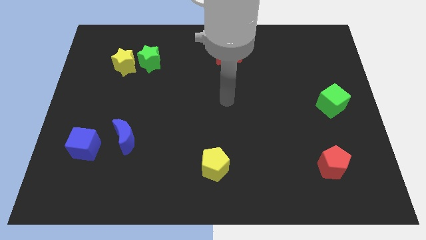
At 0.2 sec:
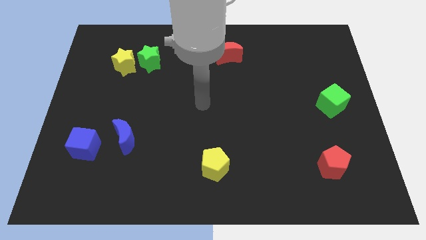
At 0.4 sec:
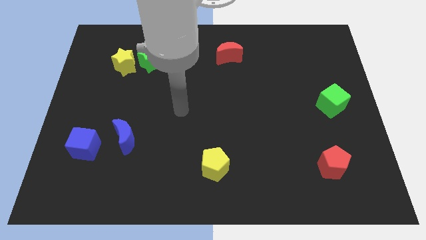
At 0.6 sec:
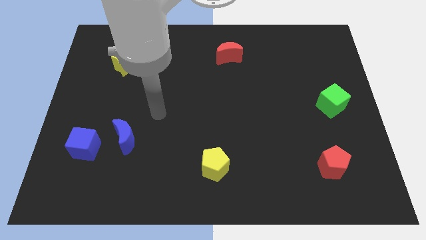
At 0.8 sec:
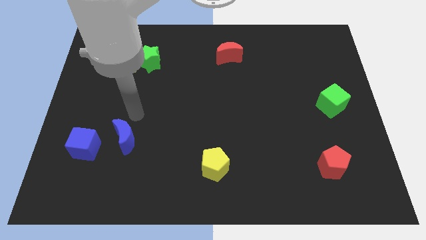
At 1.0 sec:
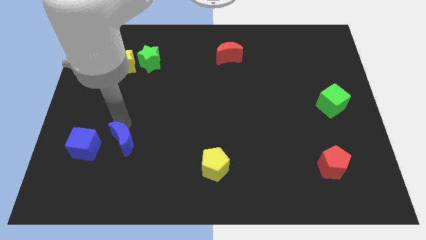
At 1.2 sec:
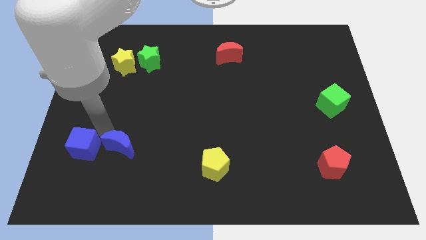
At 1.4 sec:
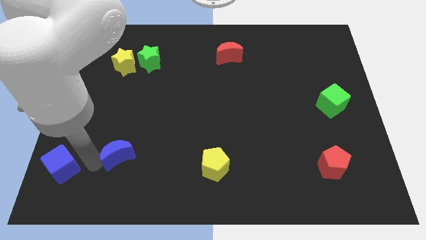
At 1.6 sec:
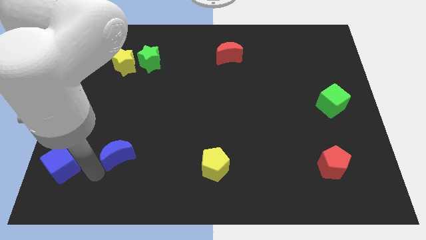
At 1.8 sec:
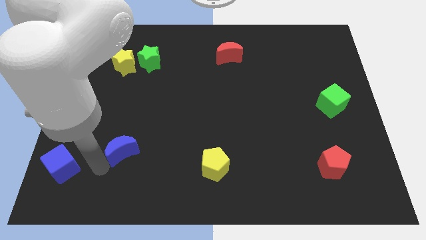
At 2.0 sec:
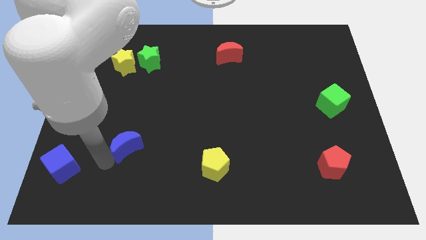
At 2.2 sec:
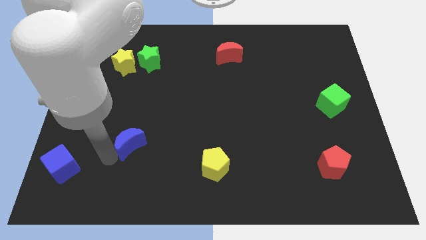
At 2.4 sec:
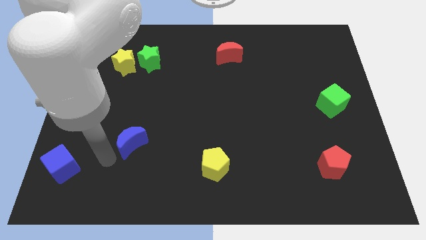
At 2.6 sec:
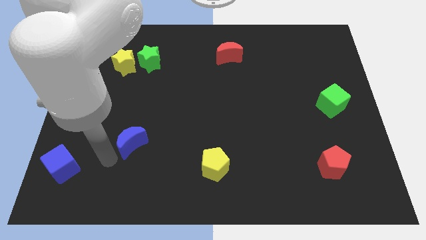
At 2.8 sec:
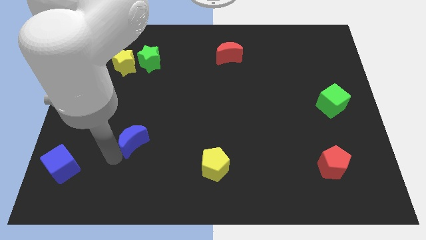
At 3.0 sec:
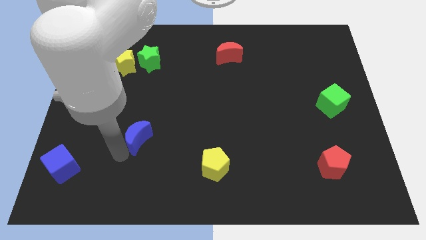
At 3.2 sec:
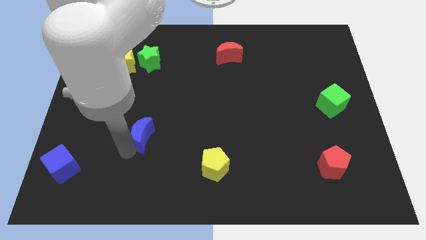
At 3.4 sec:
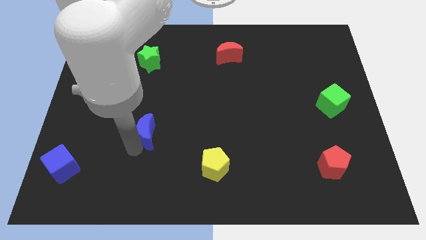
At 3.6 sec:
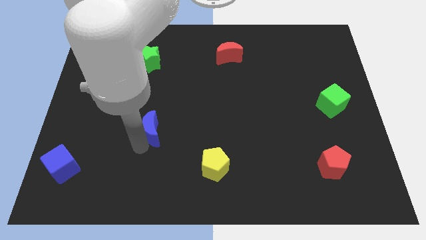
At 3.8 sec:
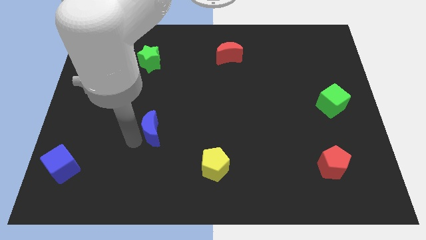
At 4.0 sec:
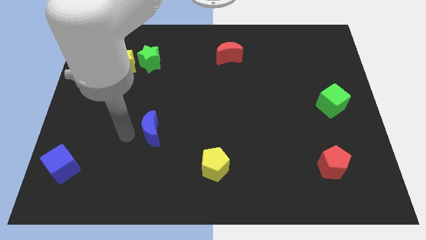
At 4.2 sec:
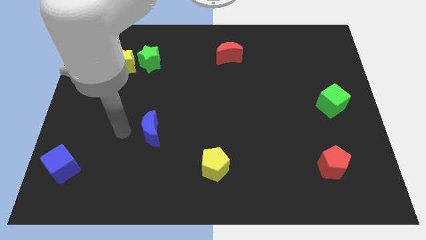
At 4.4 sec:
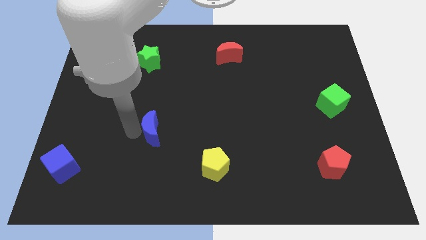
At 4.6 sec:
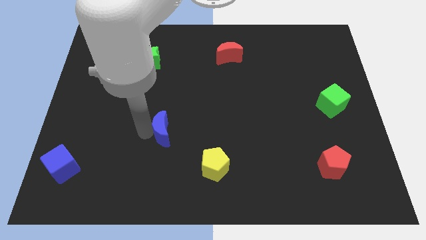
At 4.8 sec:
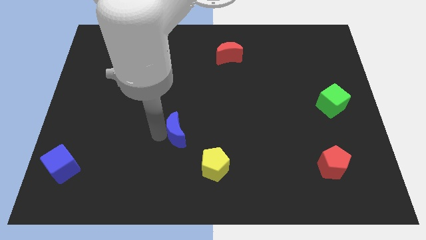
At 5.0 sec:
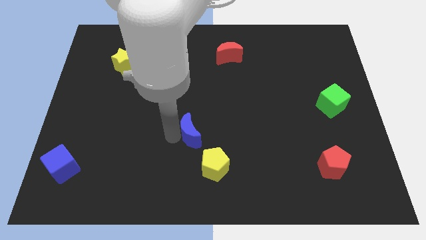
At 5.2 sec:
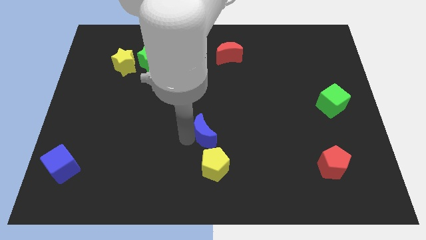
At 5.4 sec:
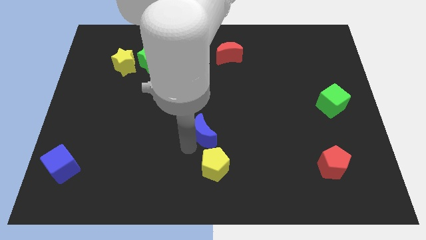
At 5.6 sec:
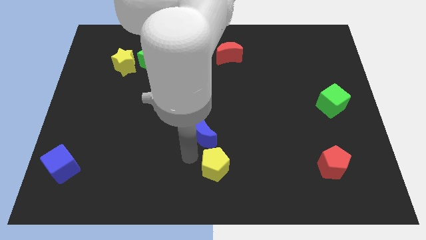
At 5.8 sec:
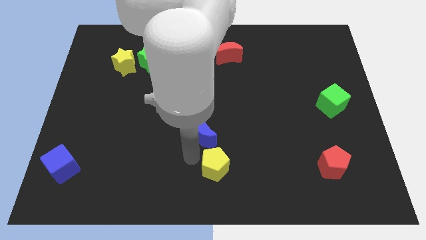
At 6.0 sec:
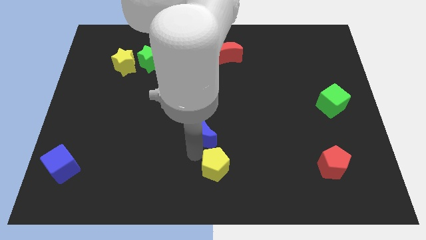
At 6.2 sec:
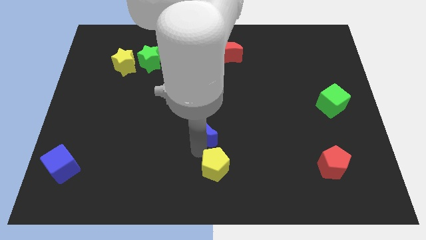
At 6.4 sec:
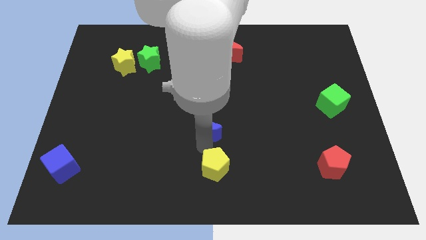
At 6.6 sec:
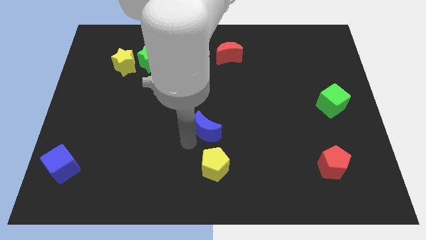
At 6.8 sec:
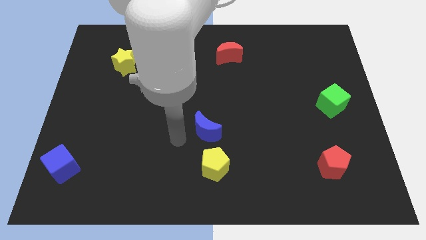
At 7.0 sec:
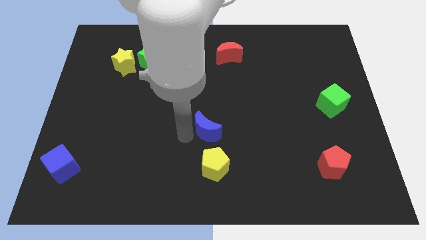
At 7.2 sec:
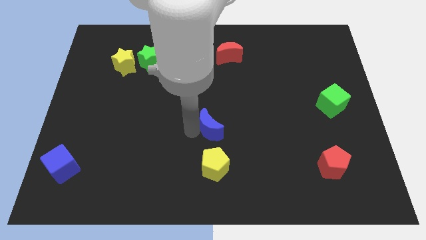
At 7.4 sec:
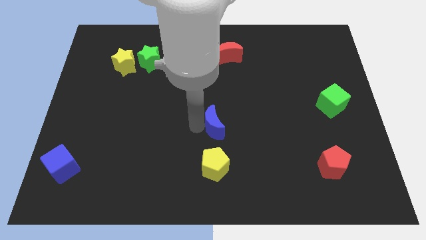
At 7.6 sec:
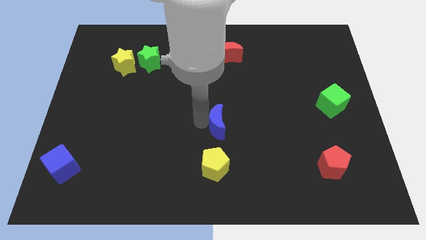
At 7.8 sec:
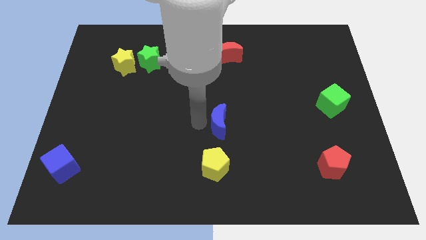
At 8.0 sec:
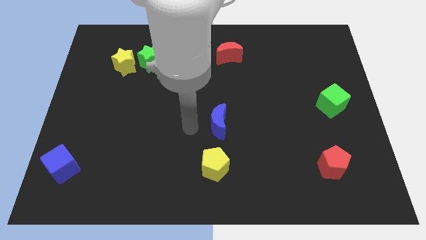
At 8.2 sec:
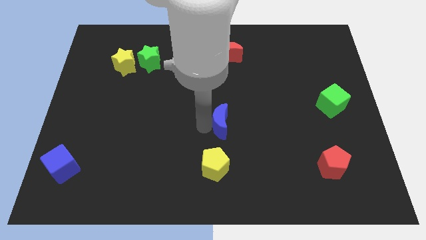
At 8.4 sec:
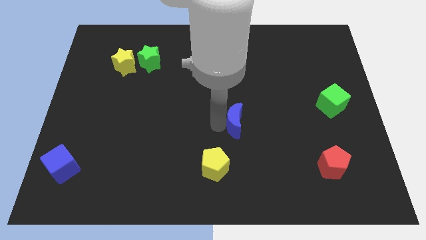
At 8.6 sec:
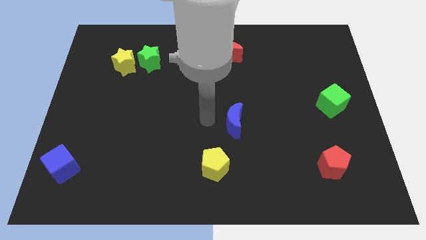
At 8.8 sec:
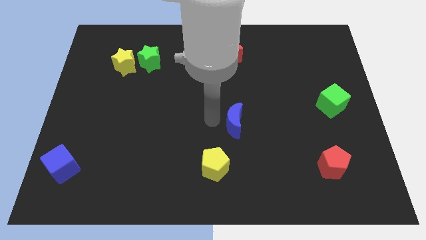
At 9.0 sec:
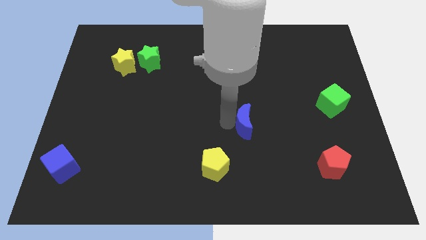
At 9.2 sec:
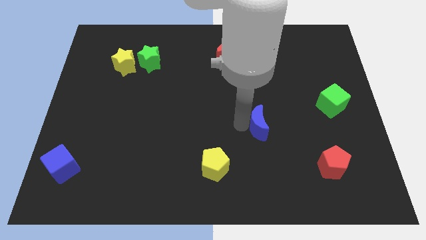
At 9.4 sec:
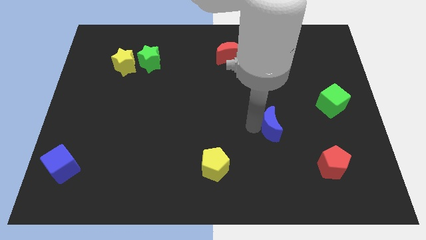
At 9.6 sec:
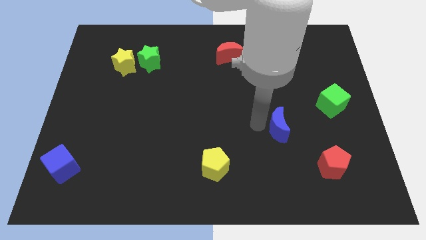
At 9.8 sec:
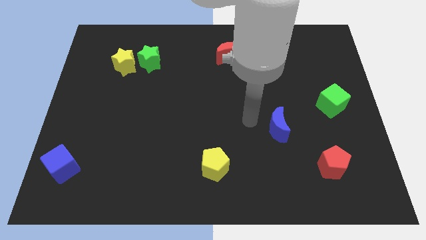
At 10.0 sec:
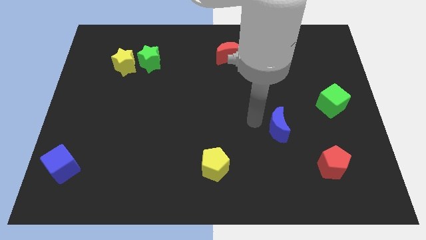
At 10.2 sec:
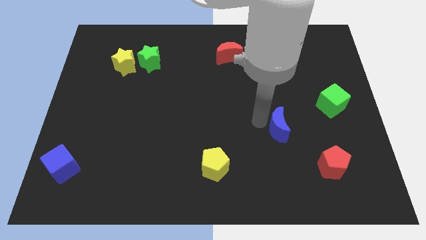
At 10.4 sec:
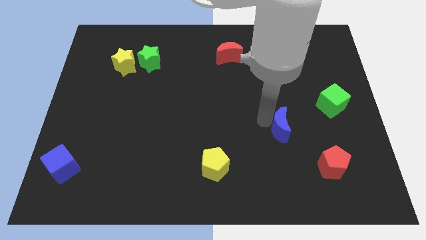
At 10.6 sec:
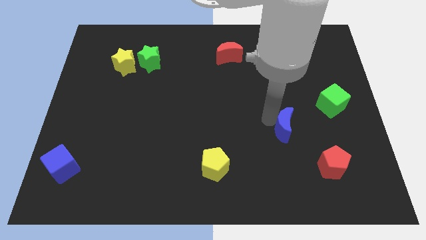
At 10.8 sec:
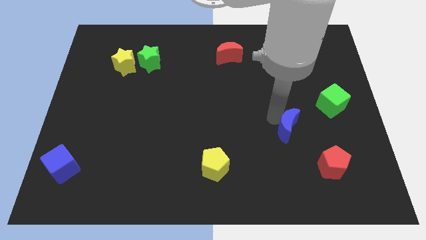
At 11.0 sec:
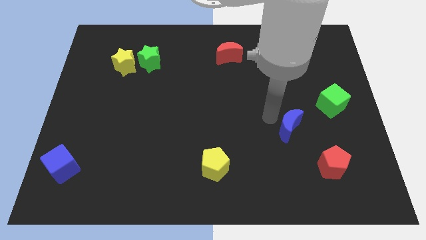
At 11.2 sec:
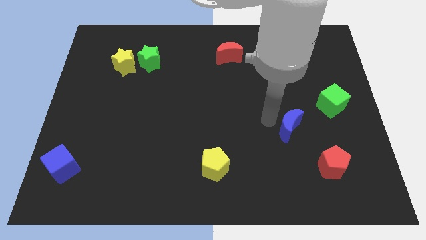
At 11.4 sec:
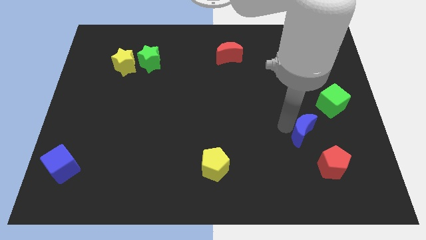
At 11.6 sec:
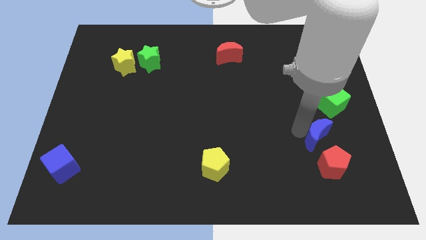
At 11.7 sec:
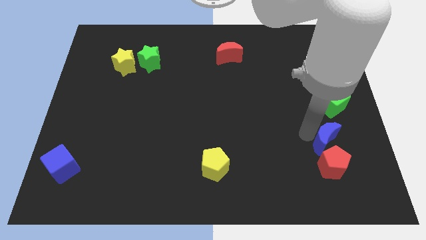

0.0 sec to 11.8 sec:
put the blue moon below the green cube

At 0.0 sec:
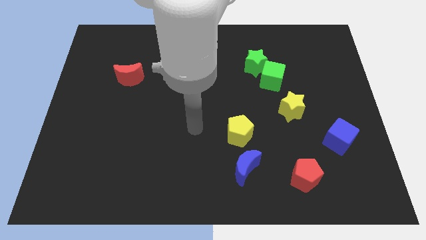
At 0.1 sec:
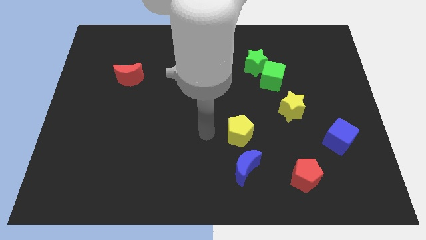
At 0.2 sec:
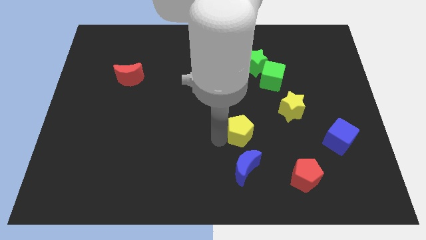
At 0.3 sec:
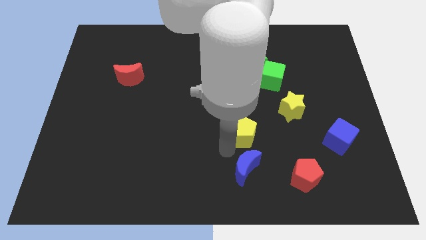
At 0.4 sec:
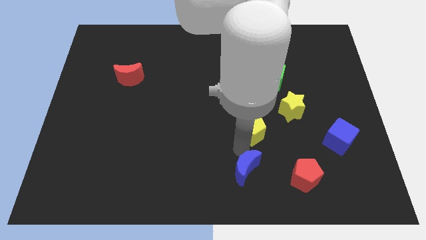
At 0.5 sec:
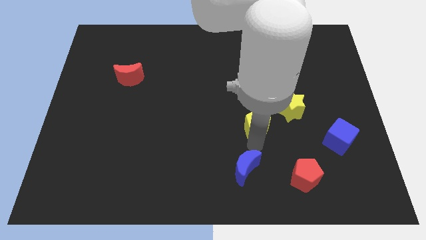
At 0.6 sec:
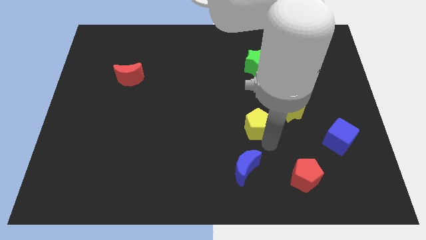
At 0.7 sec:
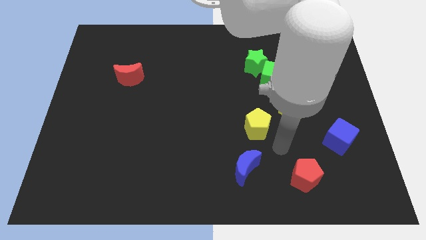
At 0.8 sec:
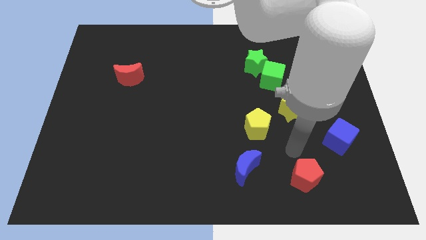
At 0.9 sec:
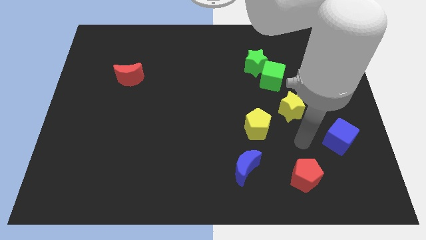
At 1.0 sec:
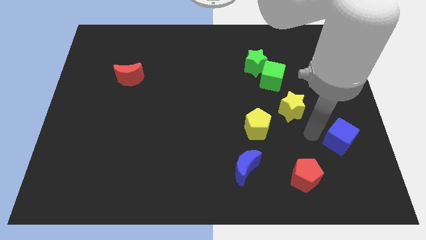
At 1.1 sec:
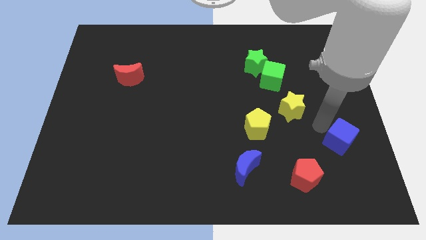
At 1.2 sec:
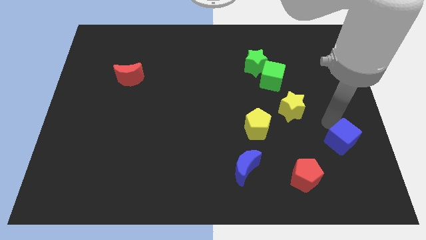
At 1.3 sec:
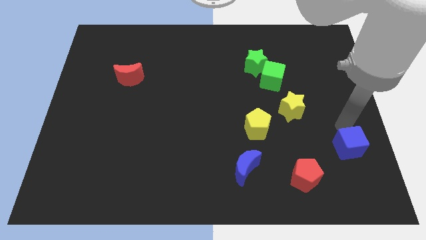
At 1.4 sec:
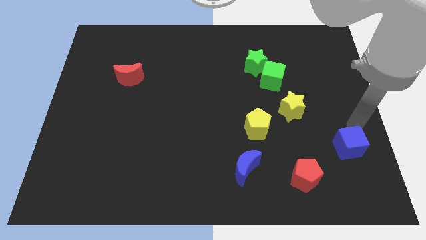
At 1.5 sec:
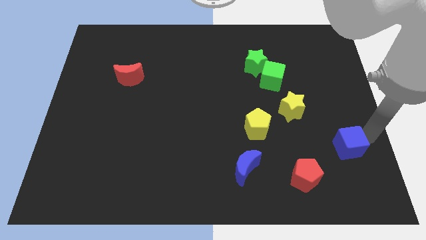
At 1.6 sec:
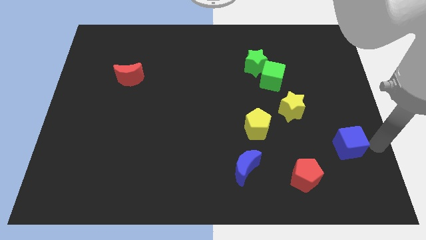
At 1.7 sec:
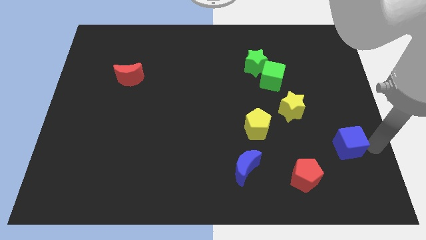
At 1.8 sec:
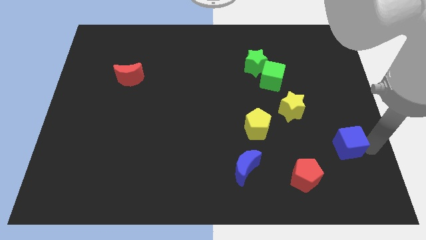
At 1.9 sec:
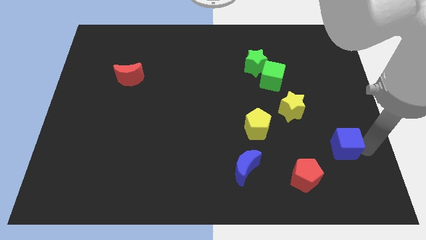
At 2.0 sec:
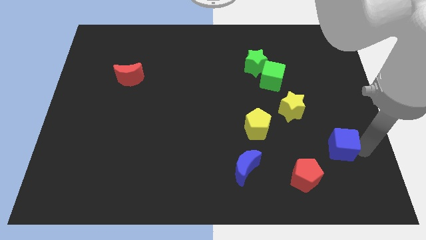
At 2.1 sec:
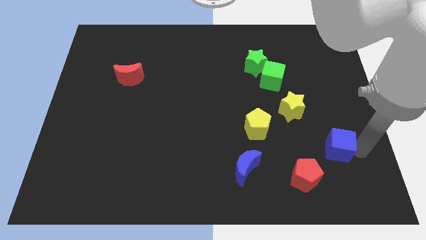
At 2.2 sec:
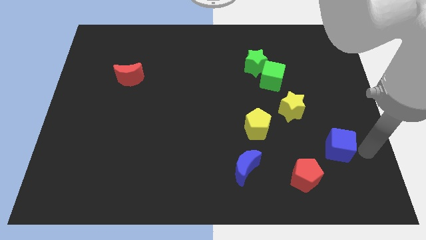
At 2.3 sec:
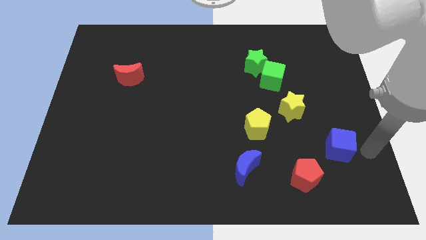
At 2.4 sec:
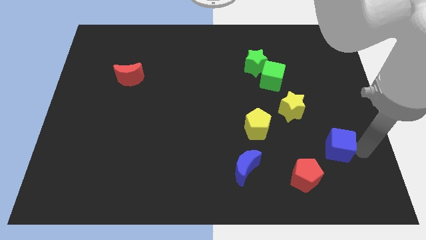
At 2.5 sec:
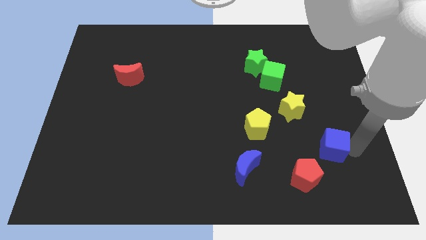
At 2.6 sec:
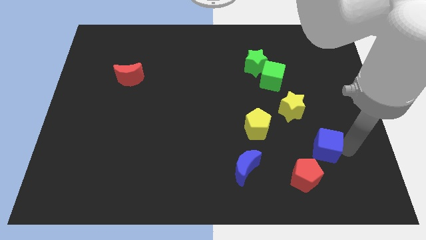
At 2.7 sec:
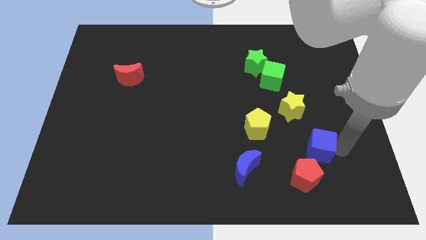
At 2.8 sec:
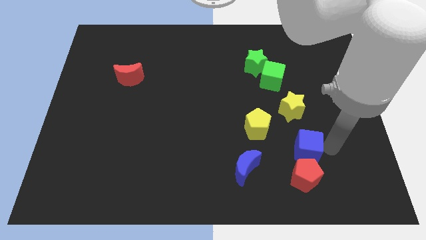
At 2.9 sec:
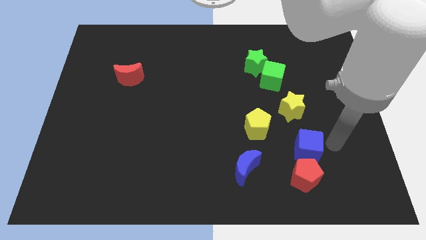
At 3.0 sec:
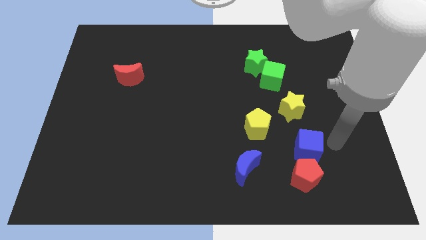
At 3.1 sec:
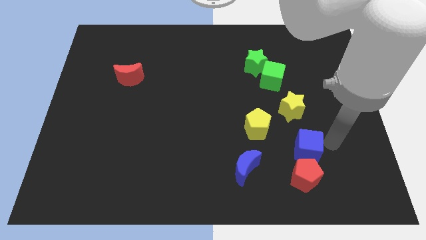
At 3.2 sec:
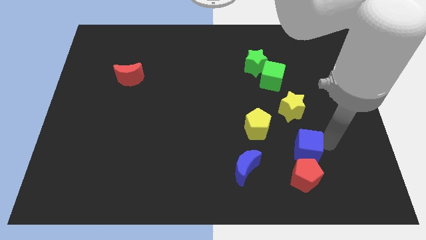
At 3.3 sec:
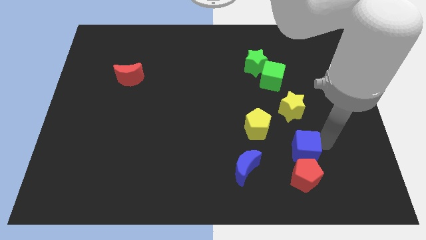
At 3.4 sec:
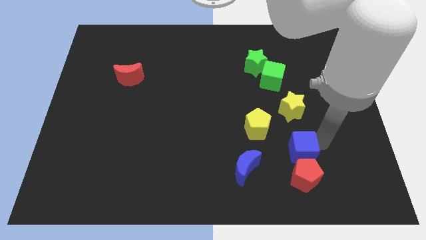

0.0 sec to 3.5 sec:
move the blue cube to the top left of the red pentagon
